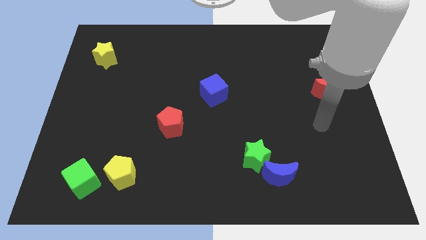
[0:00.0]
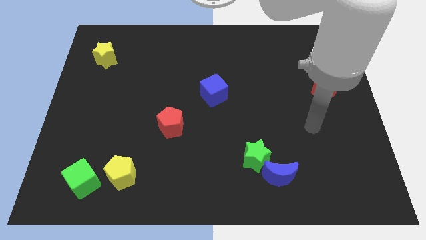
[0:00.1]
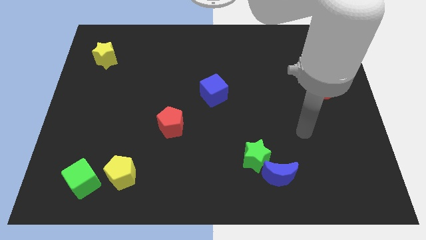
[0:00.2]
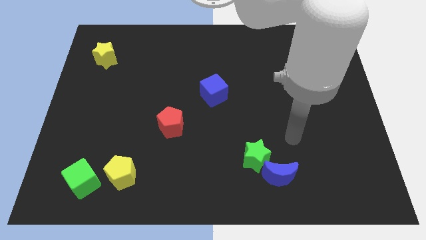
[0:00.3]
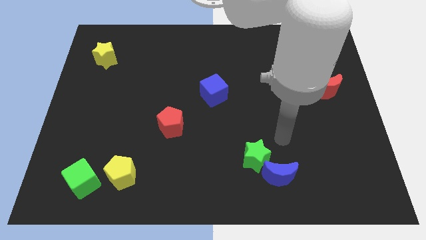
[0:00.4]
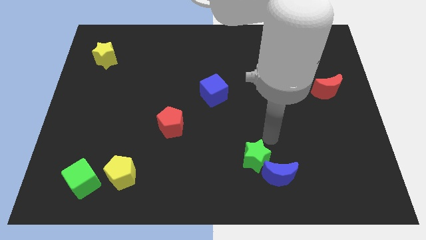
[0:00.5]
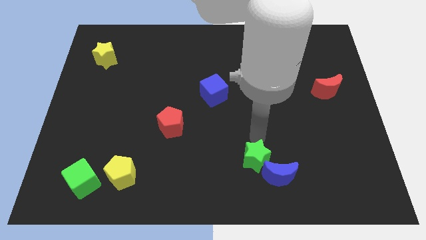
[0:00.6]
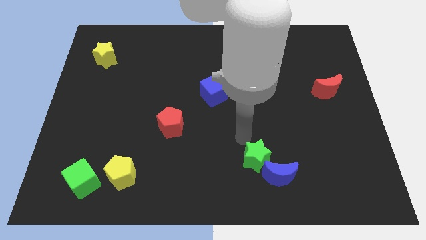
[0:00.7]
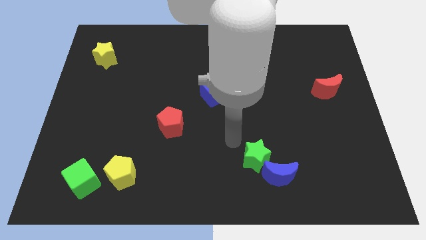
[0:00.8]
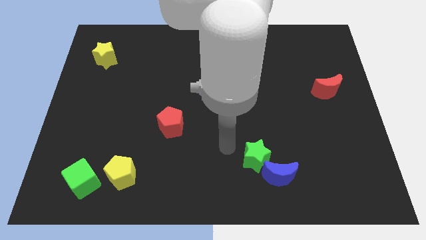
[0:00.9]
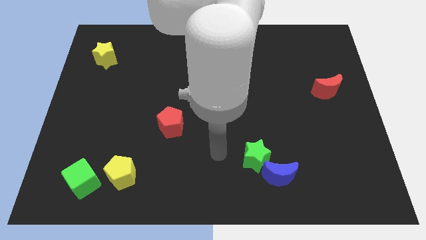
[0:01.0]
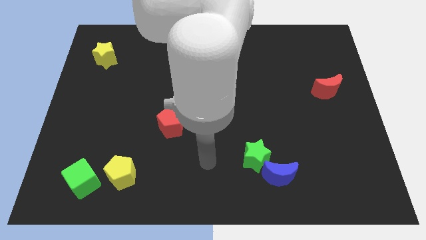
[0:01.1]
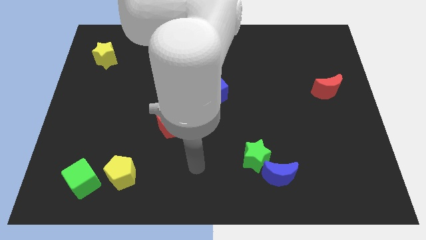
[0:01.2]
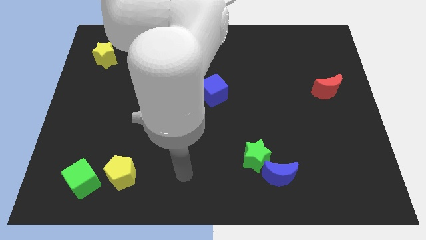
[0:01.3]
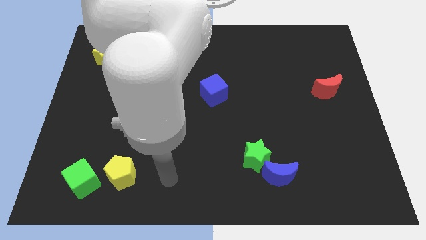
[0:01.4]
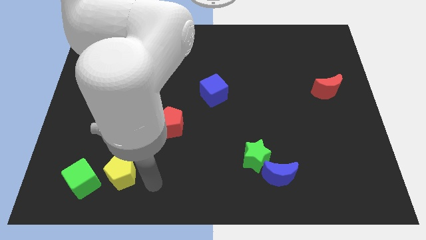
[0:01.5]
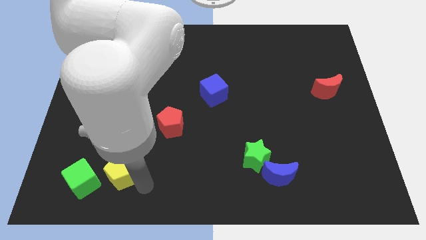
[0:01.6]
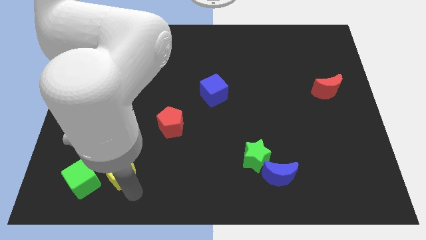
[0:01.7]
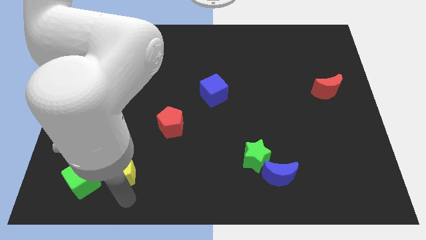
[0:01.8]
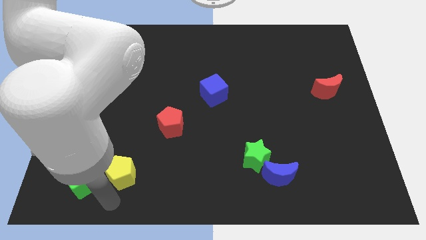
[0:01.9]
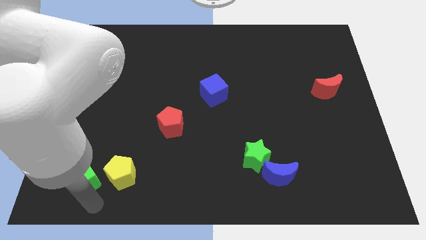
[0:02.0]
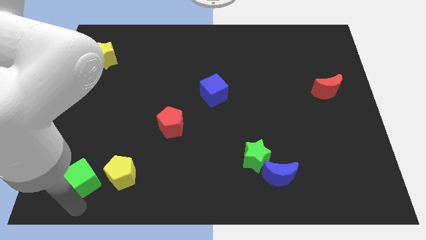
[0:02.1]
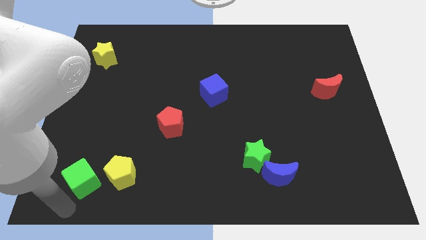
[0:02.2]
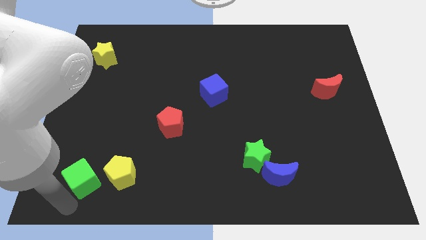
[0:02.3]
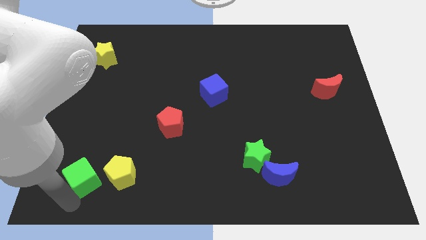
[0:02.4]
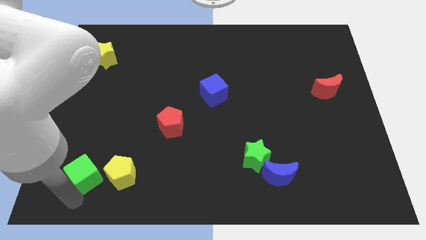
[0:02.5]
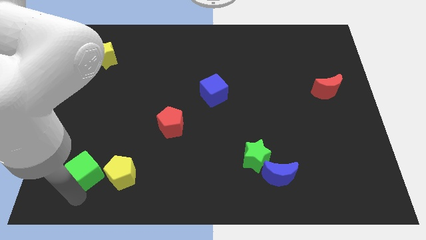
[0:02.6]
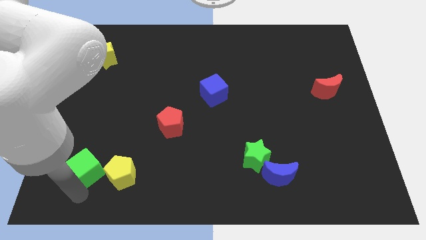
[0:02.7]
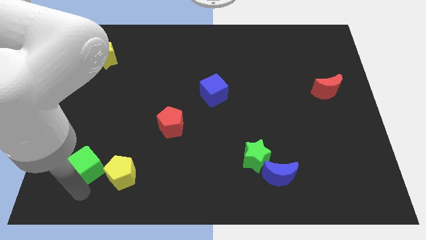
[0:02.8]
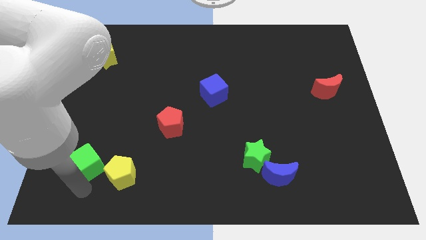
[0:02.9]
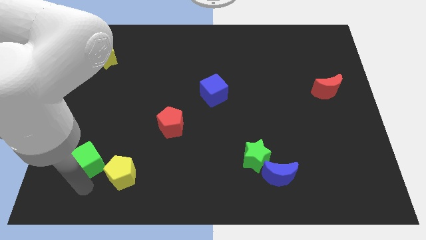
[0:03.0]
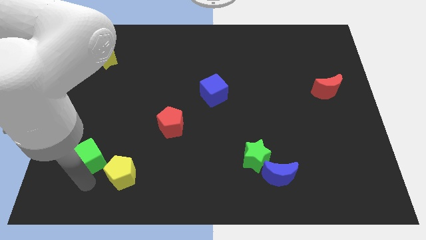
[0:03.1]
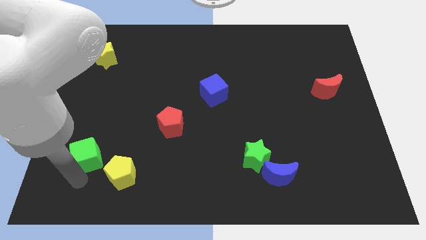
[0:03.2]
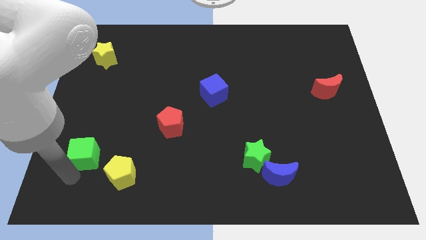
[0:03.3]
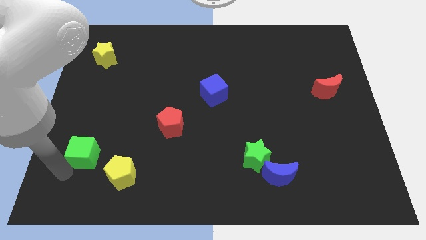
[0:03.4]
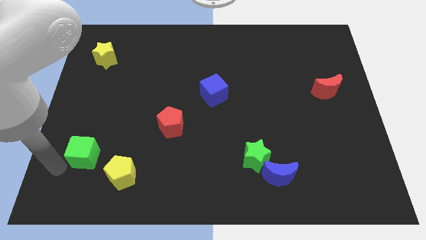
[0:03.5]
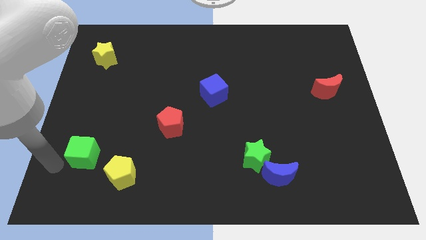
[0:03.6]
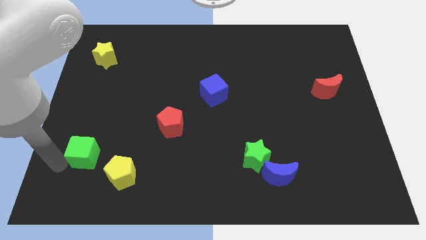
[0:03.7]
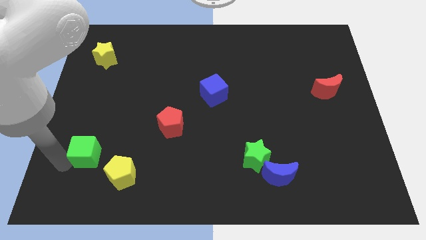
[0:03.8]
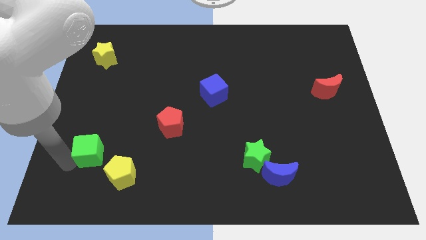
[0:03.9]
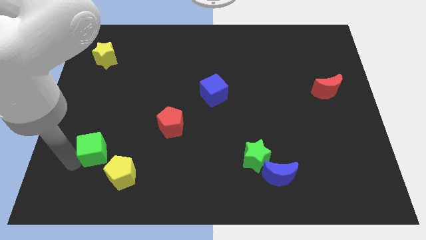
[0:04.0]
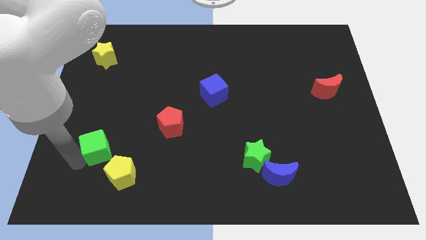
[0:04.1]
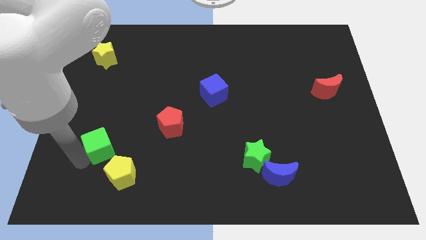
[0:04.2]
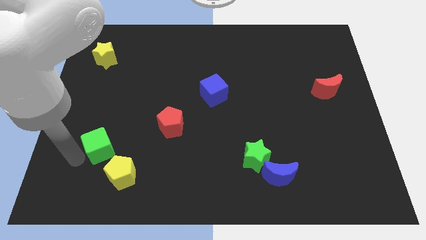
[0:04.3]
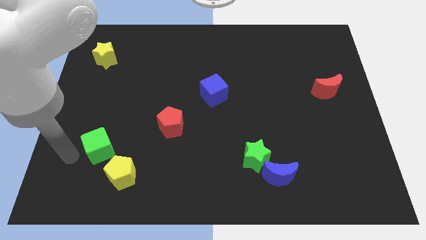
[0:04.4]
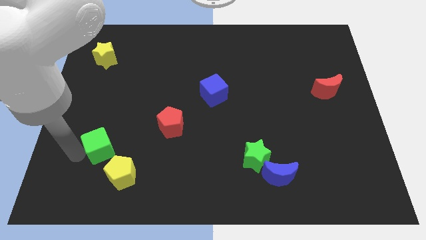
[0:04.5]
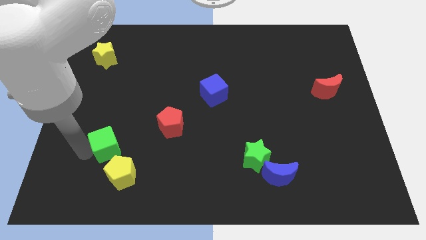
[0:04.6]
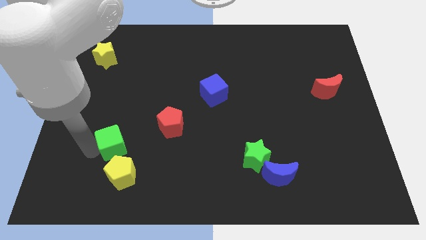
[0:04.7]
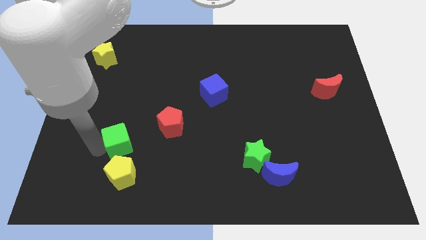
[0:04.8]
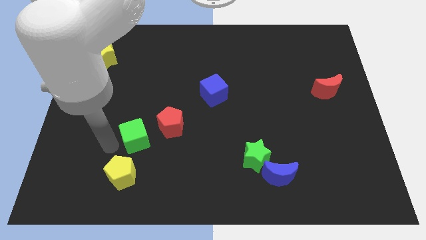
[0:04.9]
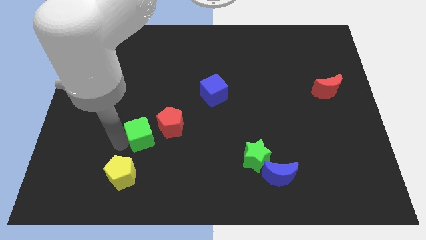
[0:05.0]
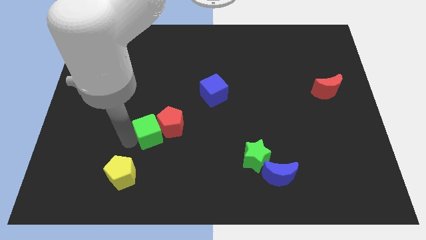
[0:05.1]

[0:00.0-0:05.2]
slide the green cube towards the red pentagon

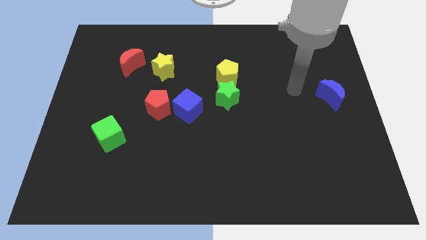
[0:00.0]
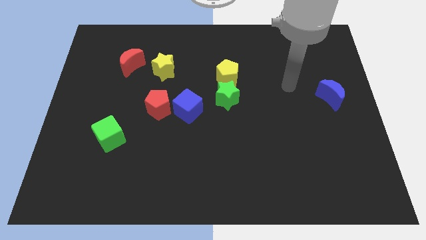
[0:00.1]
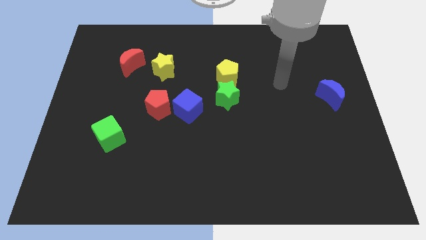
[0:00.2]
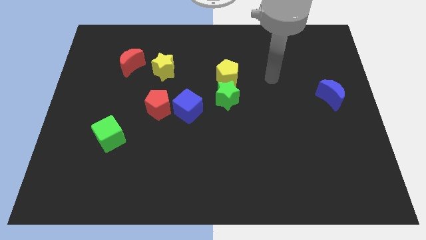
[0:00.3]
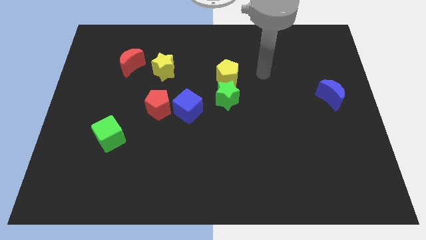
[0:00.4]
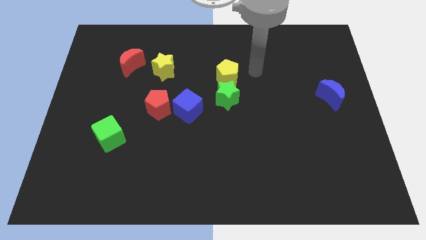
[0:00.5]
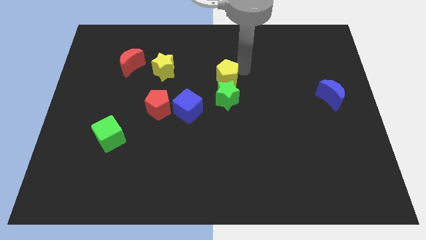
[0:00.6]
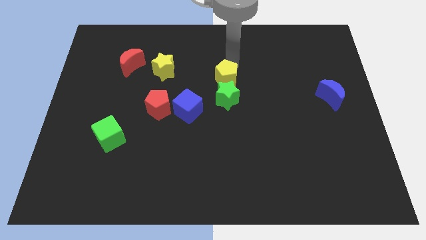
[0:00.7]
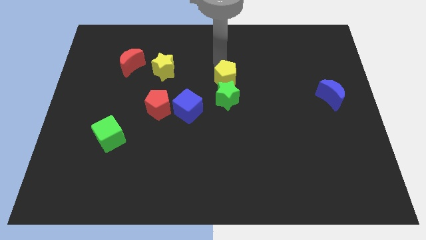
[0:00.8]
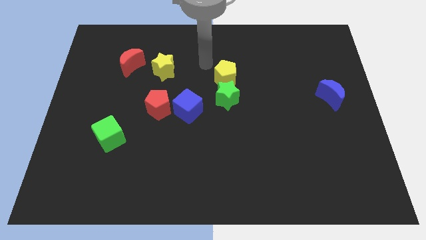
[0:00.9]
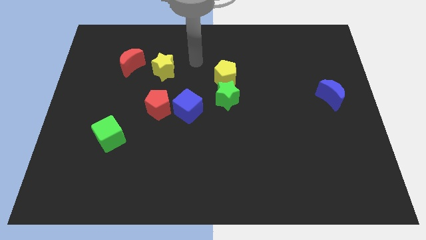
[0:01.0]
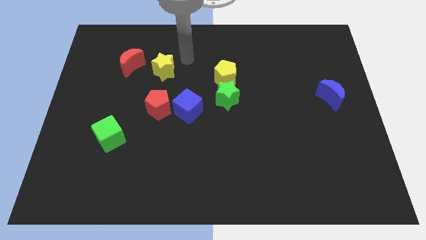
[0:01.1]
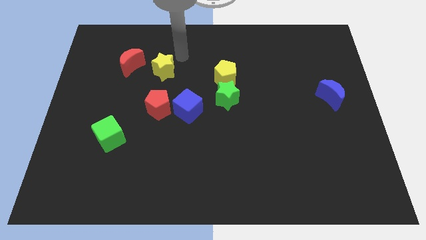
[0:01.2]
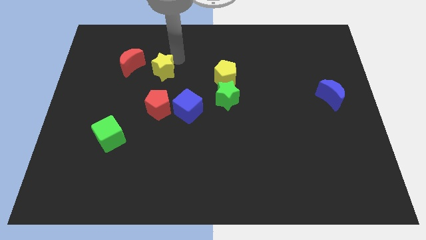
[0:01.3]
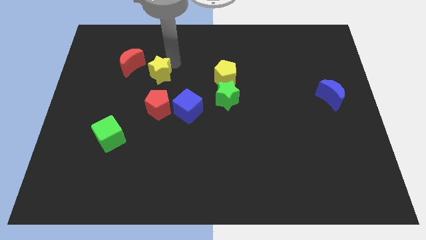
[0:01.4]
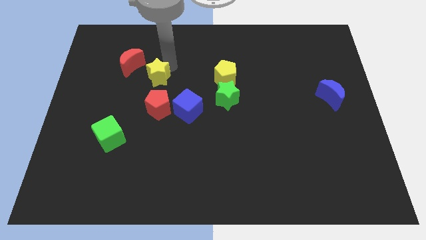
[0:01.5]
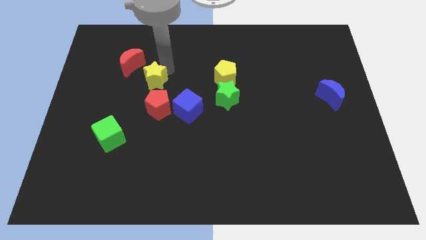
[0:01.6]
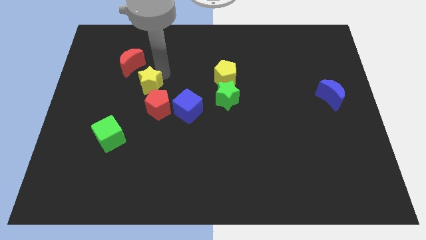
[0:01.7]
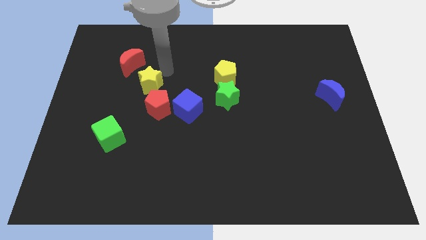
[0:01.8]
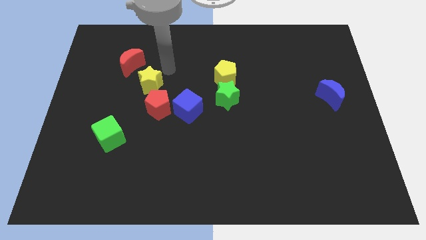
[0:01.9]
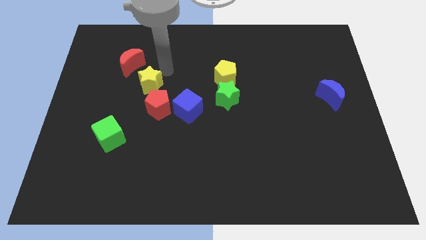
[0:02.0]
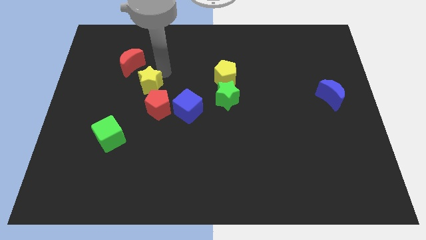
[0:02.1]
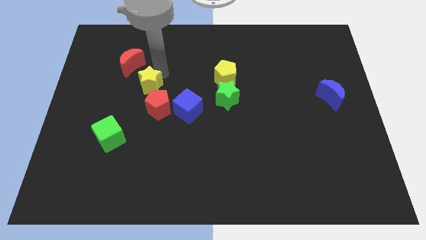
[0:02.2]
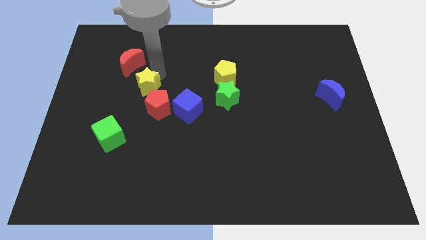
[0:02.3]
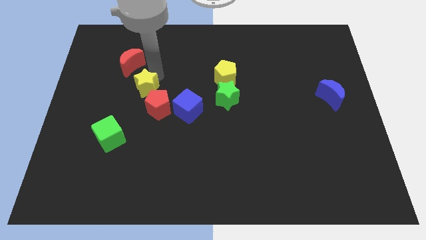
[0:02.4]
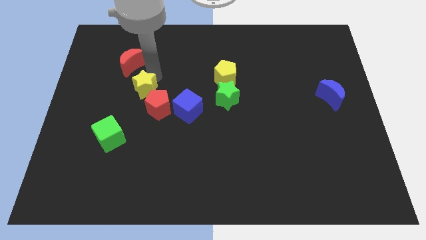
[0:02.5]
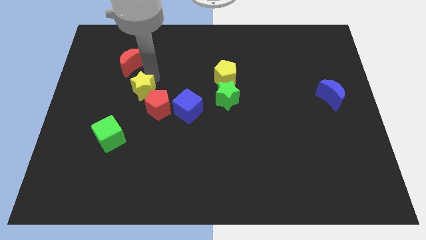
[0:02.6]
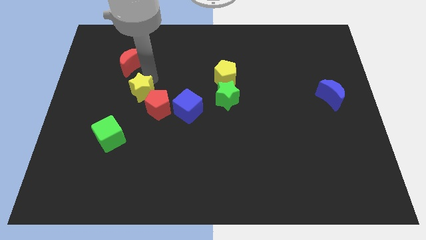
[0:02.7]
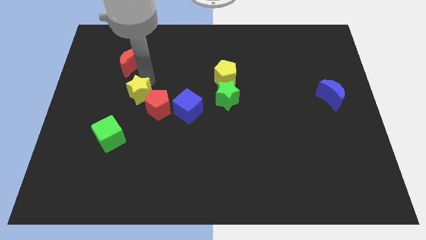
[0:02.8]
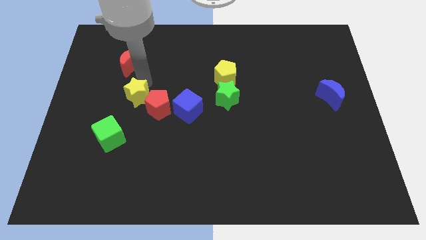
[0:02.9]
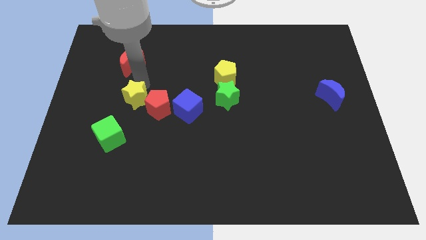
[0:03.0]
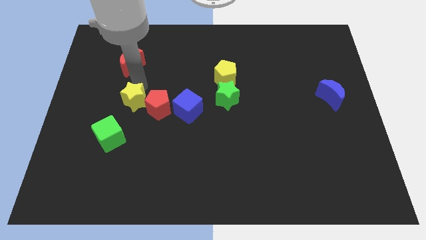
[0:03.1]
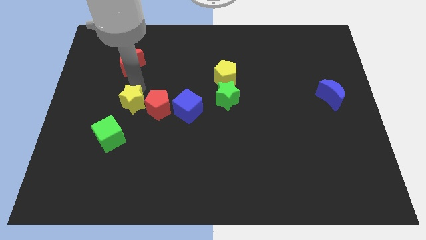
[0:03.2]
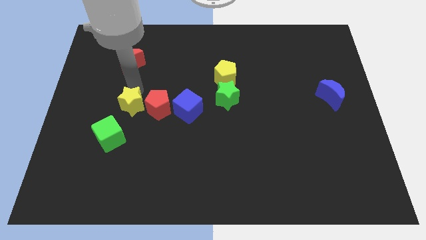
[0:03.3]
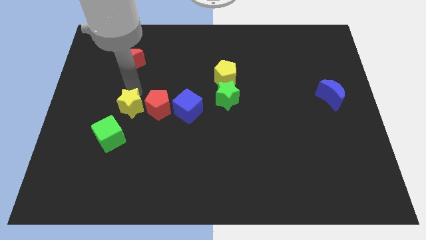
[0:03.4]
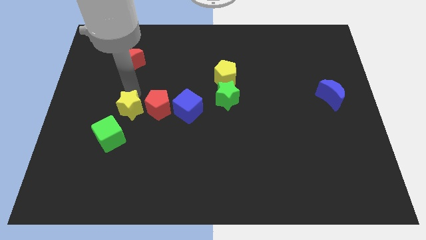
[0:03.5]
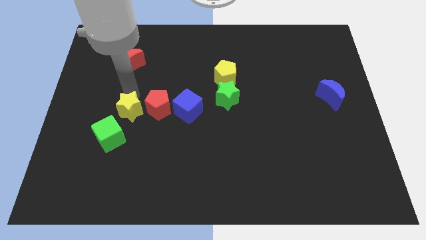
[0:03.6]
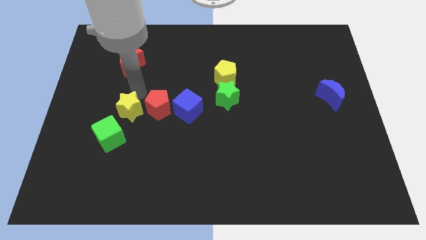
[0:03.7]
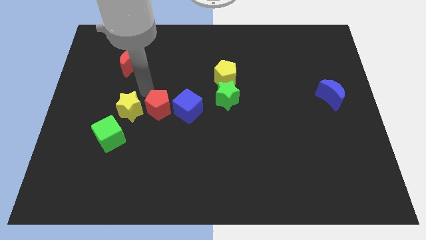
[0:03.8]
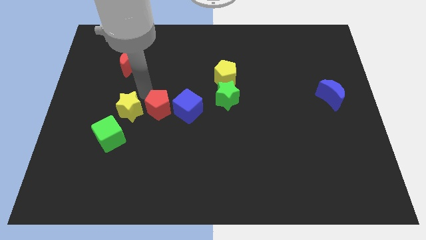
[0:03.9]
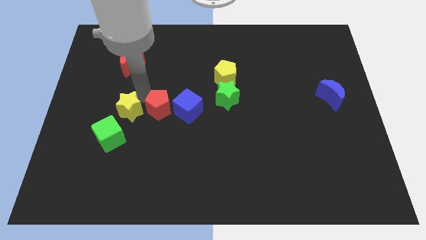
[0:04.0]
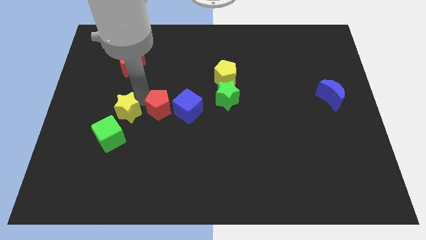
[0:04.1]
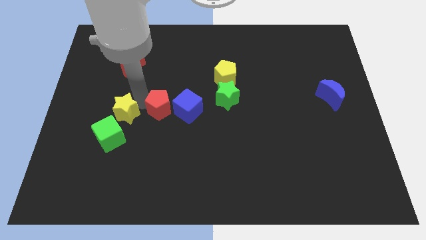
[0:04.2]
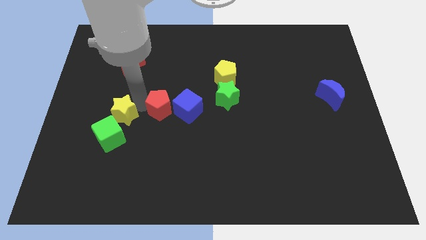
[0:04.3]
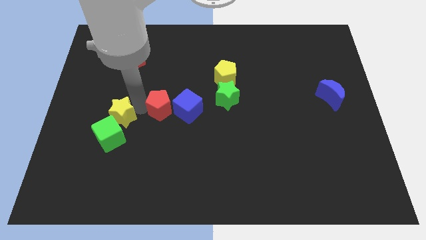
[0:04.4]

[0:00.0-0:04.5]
slide the yellow star next to the green cube
